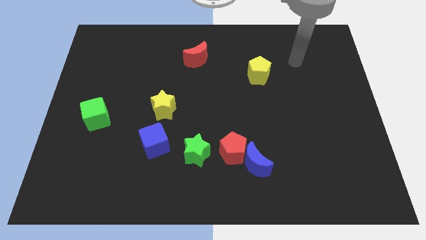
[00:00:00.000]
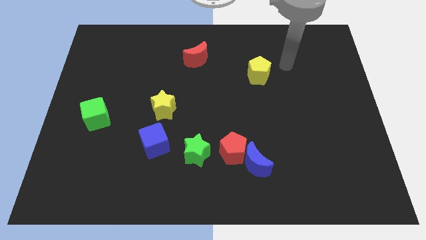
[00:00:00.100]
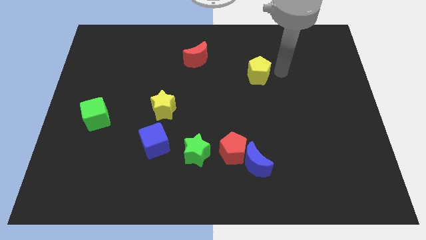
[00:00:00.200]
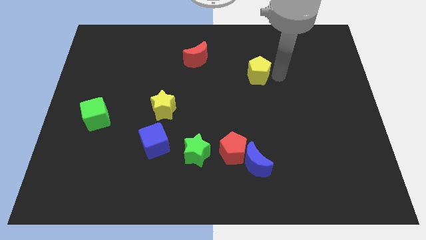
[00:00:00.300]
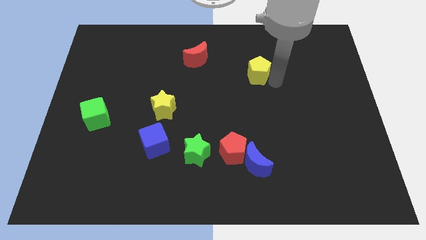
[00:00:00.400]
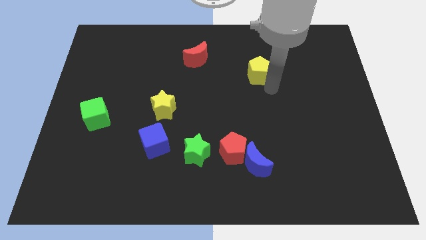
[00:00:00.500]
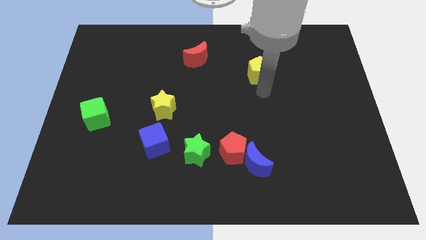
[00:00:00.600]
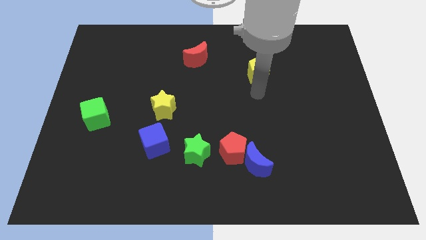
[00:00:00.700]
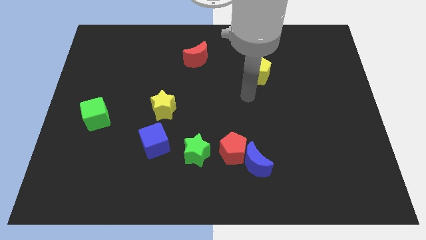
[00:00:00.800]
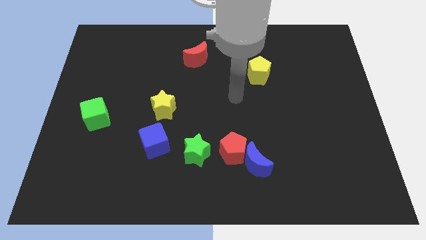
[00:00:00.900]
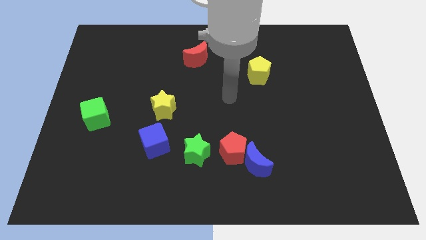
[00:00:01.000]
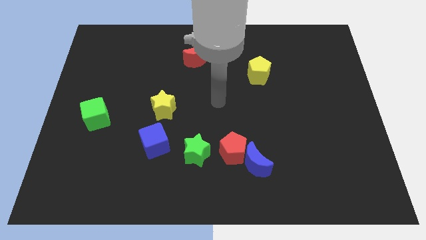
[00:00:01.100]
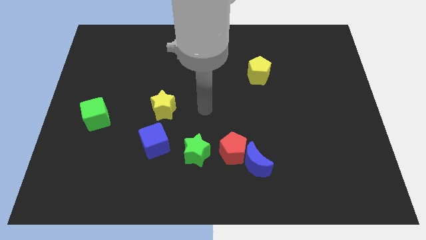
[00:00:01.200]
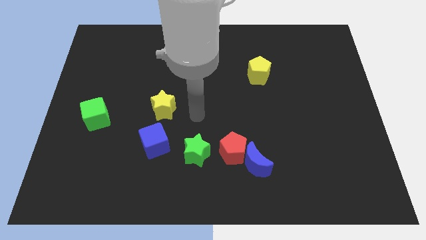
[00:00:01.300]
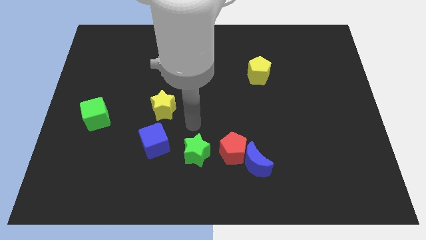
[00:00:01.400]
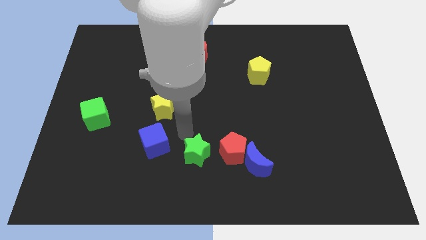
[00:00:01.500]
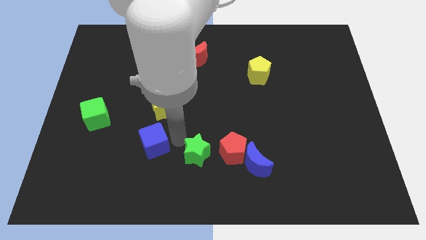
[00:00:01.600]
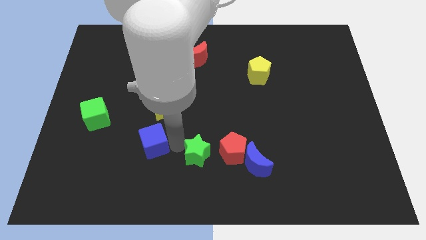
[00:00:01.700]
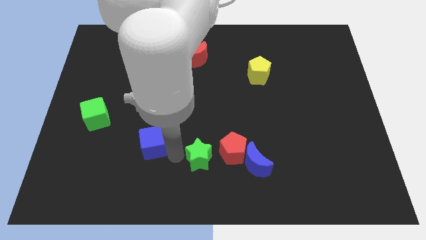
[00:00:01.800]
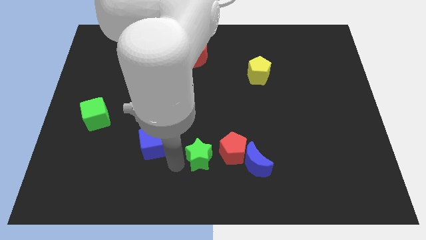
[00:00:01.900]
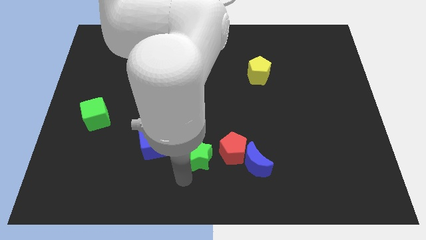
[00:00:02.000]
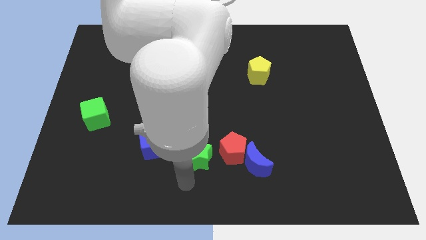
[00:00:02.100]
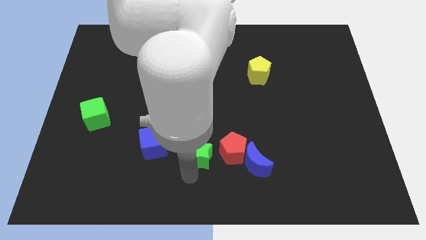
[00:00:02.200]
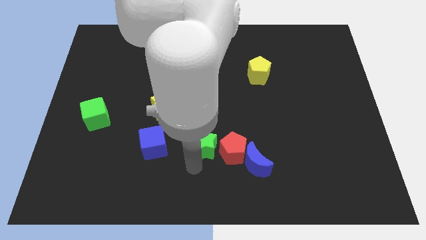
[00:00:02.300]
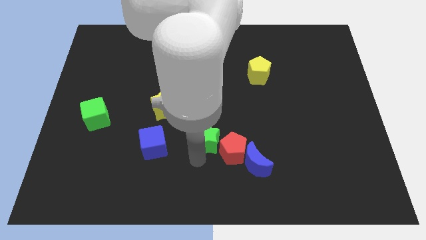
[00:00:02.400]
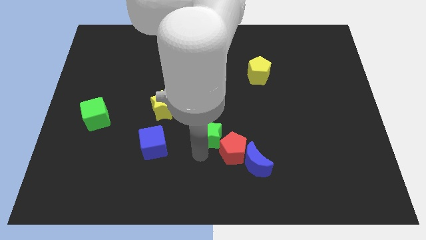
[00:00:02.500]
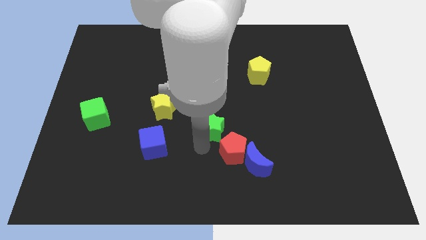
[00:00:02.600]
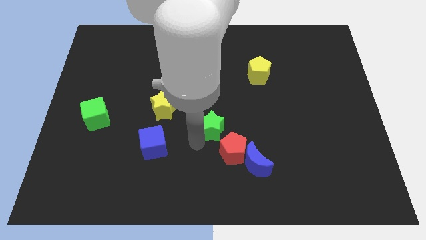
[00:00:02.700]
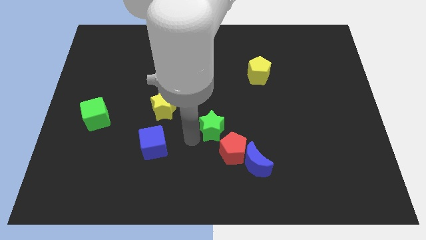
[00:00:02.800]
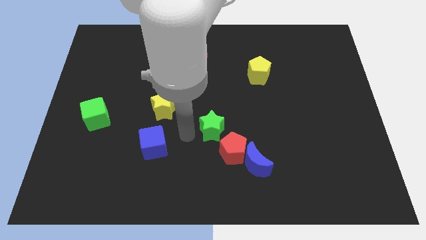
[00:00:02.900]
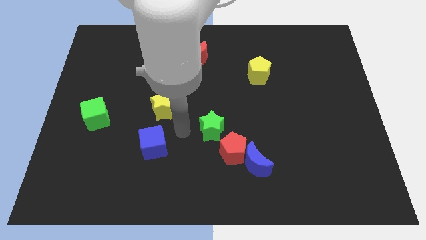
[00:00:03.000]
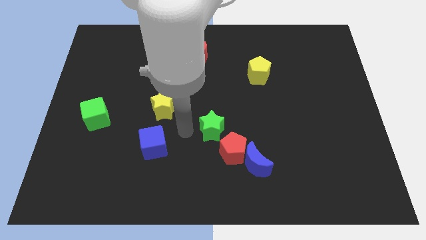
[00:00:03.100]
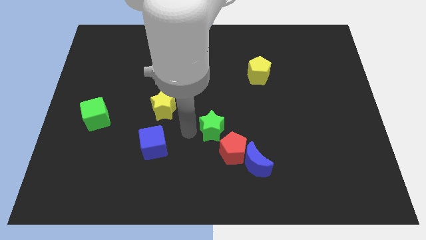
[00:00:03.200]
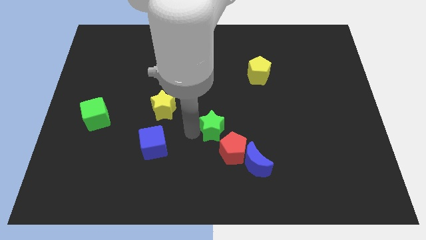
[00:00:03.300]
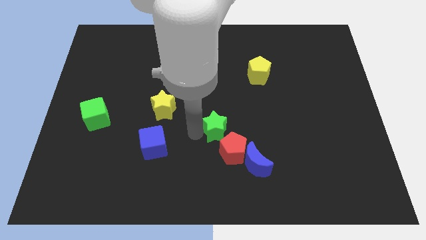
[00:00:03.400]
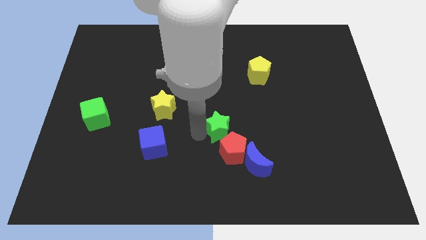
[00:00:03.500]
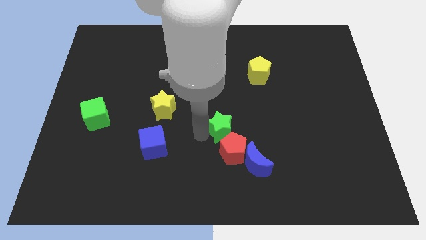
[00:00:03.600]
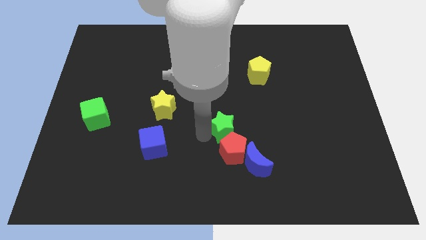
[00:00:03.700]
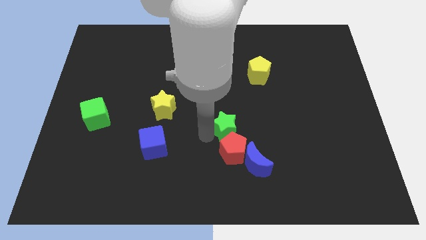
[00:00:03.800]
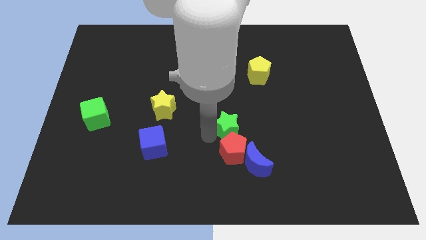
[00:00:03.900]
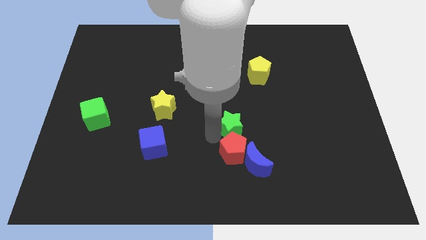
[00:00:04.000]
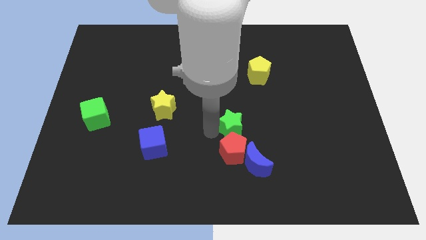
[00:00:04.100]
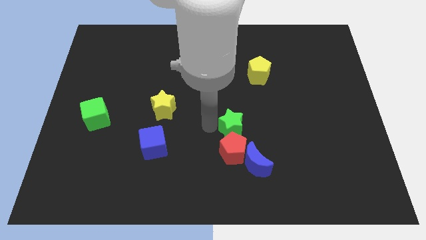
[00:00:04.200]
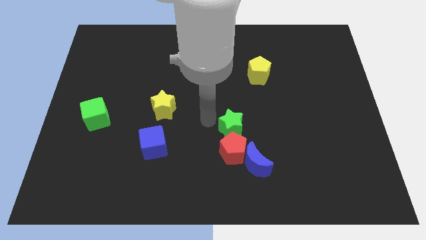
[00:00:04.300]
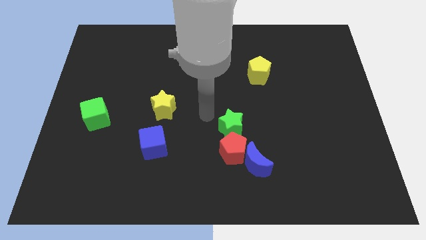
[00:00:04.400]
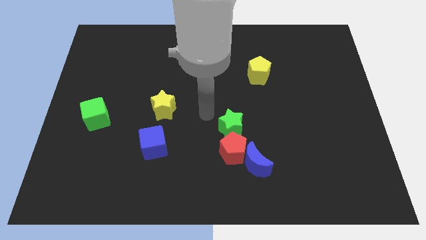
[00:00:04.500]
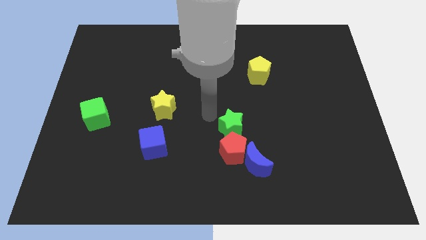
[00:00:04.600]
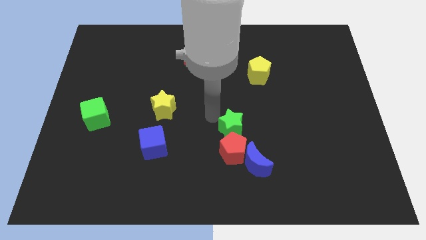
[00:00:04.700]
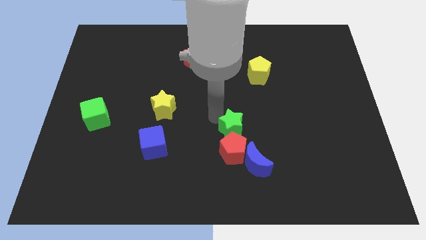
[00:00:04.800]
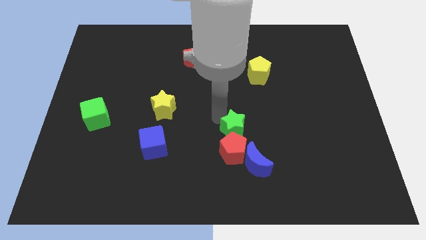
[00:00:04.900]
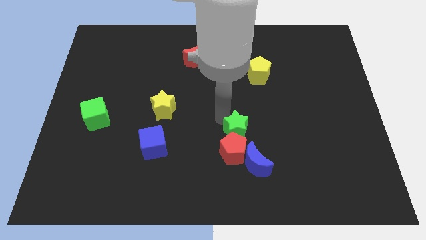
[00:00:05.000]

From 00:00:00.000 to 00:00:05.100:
slightly slide the green star right

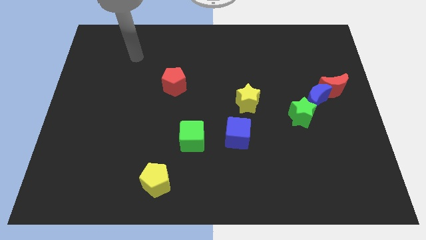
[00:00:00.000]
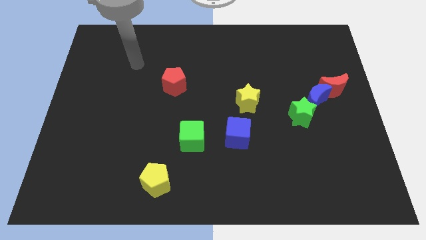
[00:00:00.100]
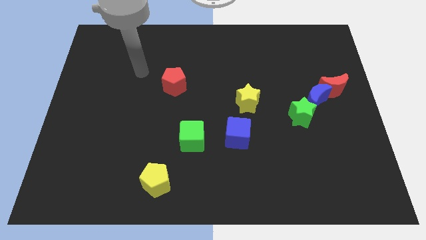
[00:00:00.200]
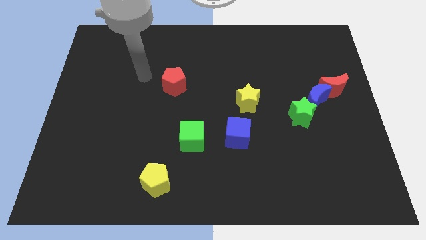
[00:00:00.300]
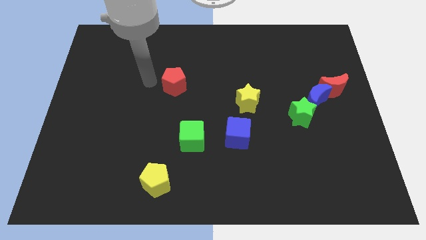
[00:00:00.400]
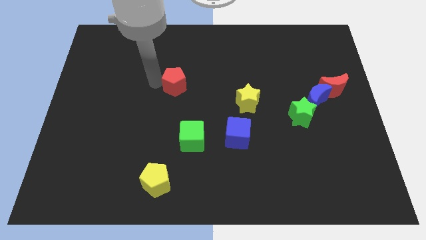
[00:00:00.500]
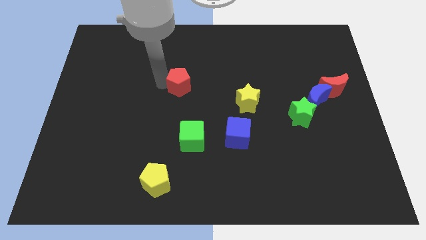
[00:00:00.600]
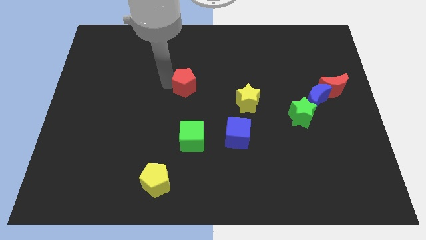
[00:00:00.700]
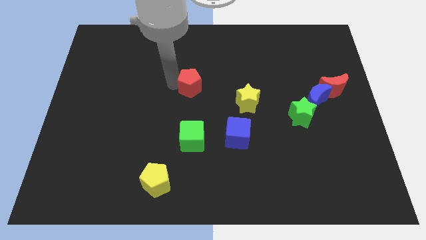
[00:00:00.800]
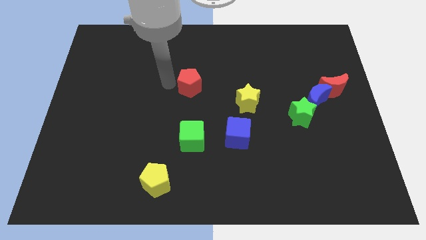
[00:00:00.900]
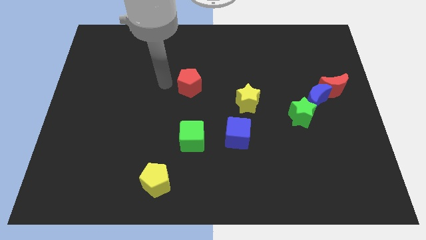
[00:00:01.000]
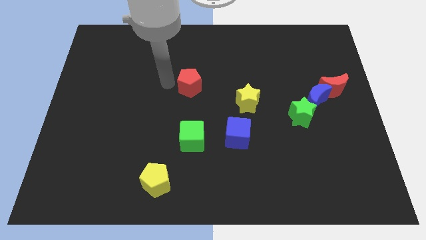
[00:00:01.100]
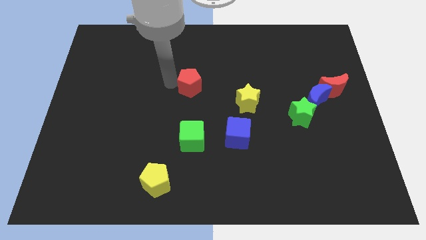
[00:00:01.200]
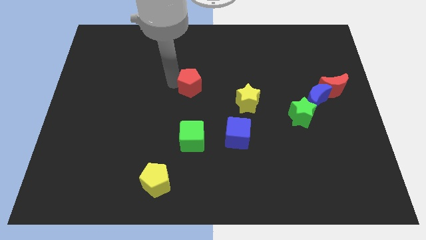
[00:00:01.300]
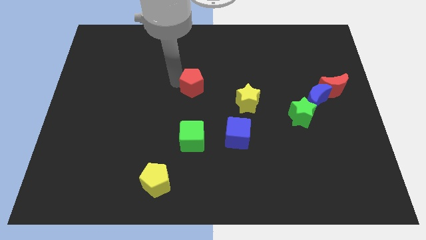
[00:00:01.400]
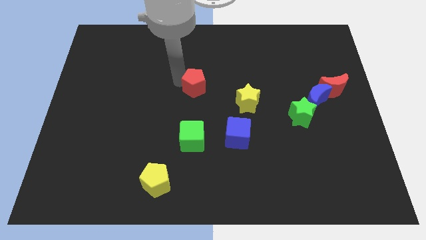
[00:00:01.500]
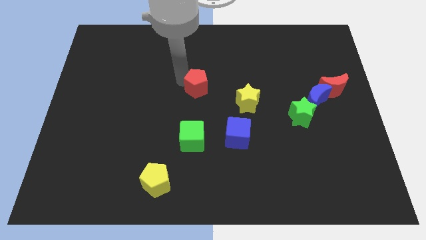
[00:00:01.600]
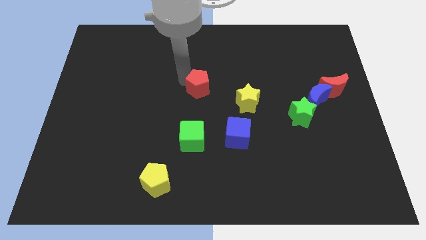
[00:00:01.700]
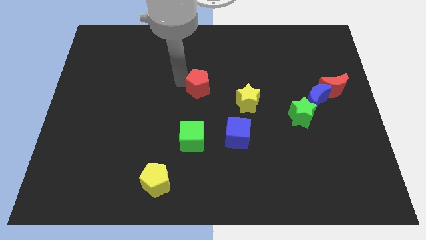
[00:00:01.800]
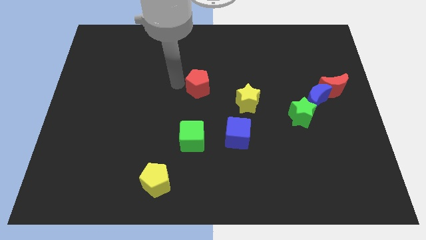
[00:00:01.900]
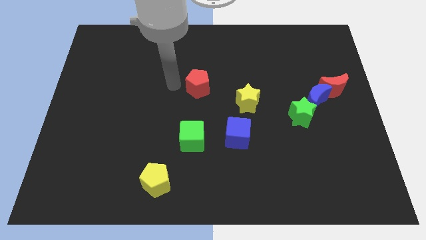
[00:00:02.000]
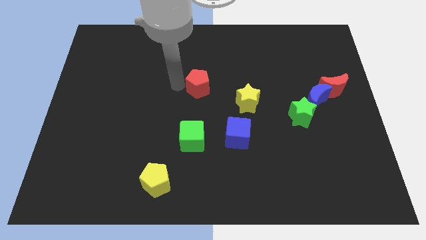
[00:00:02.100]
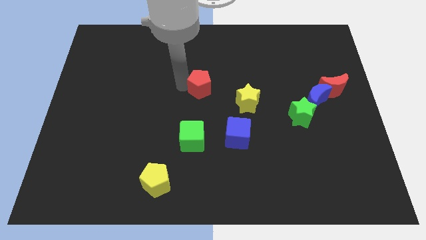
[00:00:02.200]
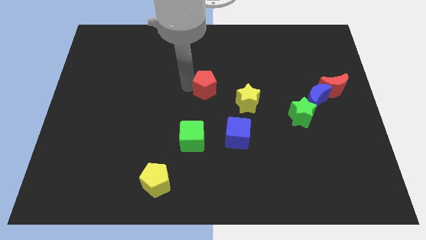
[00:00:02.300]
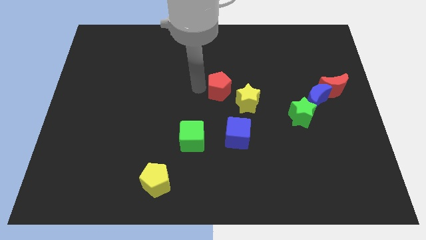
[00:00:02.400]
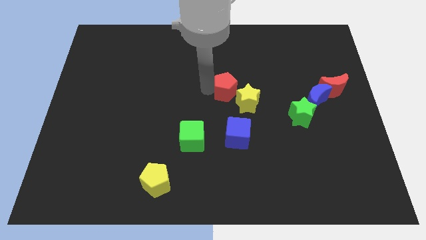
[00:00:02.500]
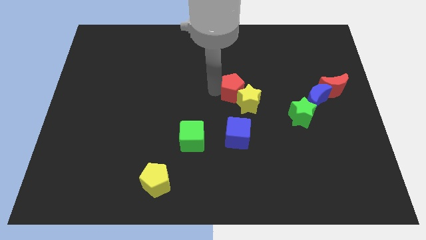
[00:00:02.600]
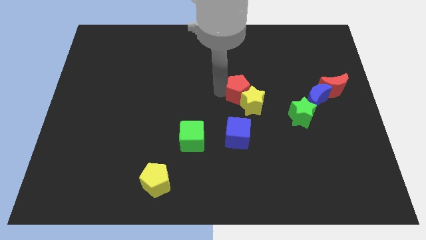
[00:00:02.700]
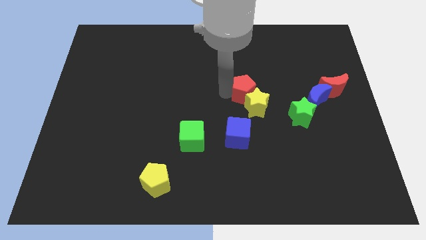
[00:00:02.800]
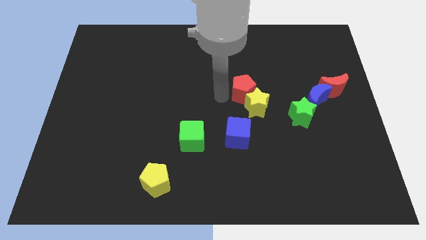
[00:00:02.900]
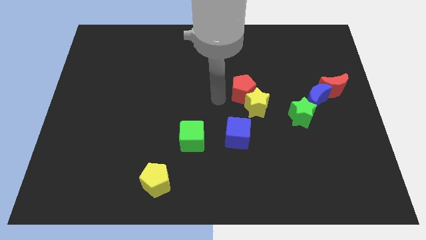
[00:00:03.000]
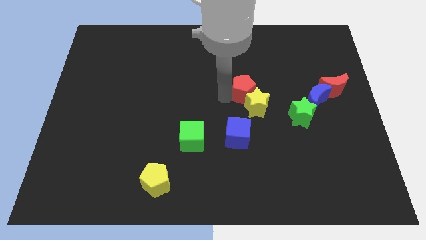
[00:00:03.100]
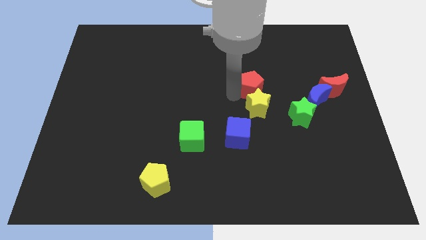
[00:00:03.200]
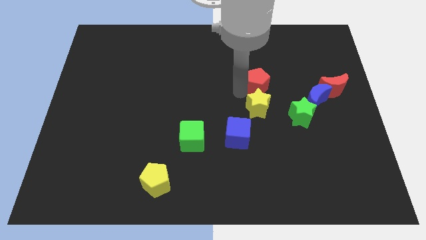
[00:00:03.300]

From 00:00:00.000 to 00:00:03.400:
move the red pentagon to the right
